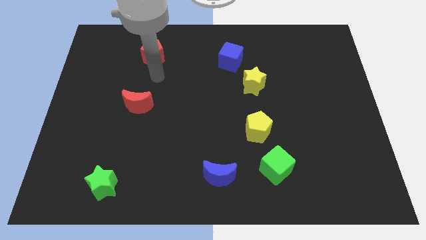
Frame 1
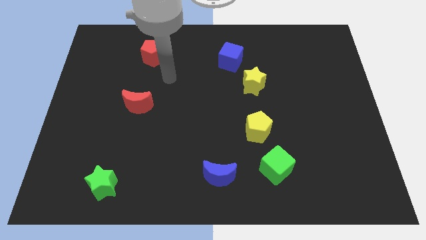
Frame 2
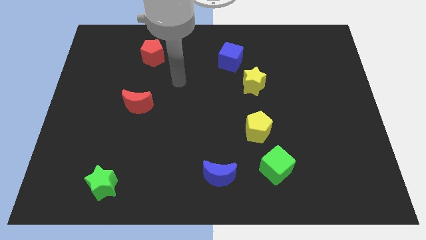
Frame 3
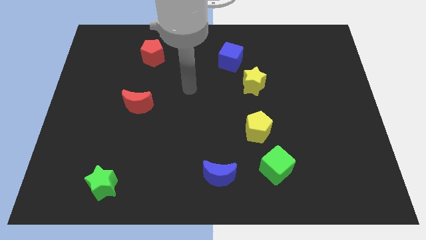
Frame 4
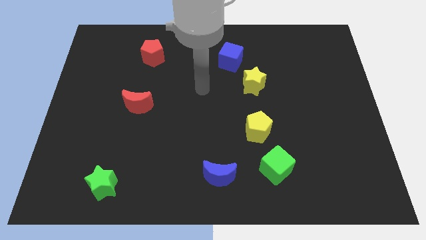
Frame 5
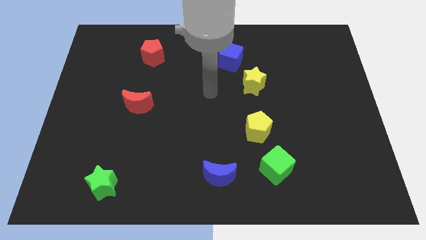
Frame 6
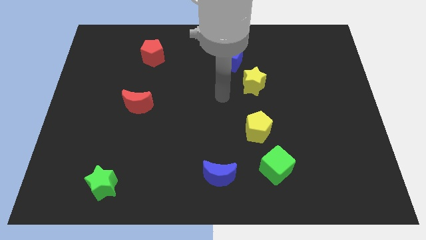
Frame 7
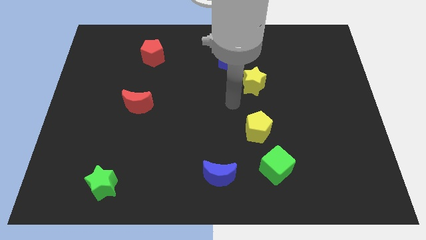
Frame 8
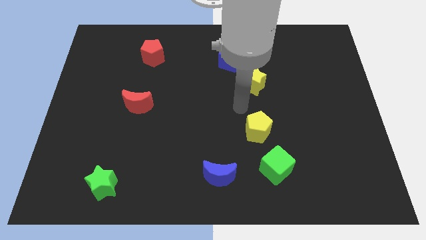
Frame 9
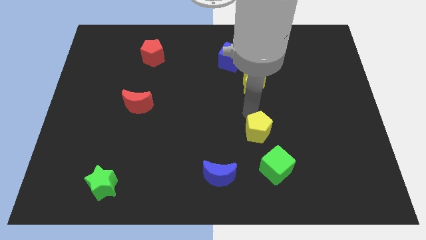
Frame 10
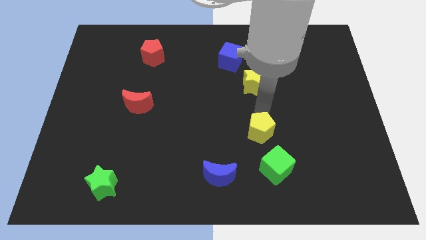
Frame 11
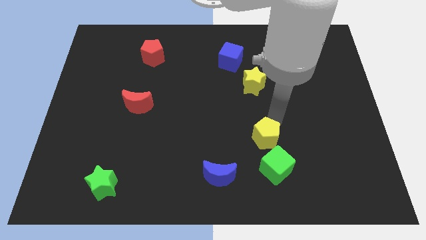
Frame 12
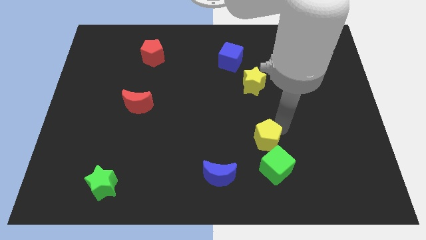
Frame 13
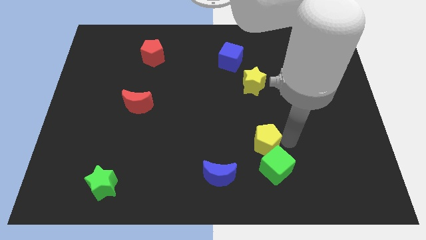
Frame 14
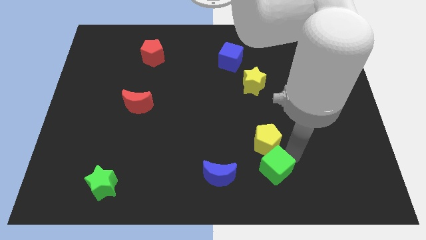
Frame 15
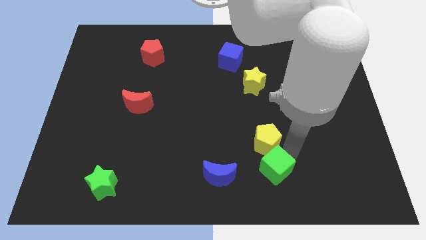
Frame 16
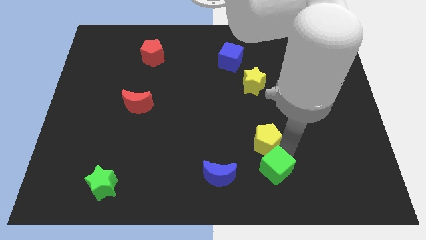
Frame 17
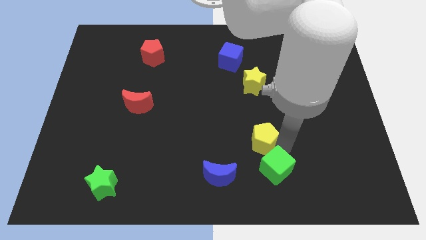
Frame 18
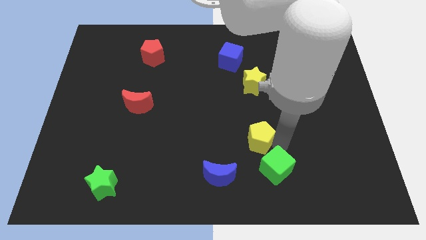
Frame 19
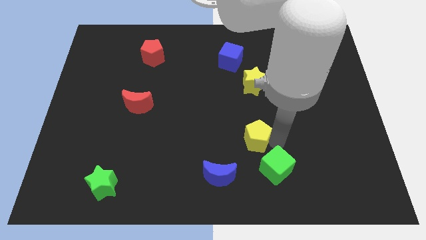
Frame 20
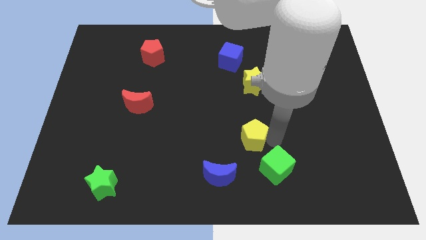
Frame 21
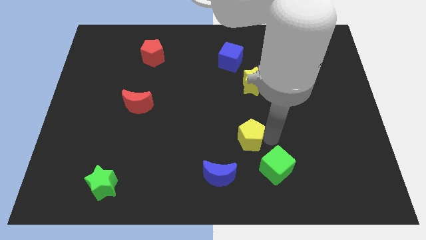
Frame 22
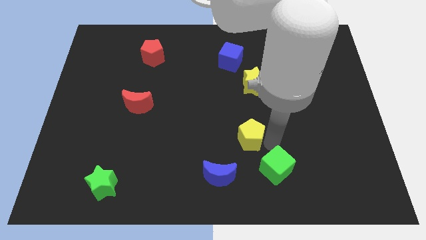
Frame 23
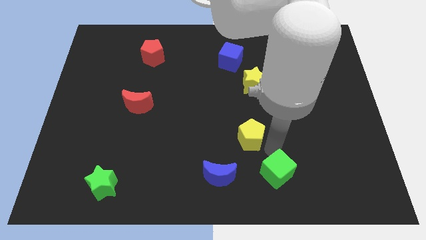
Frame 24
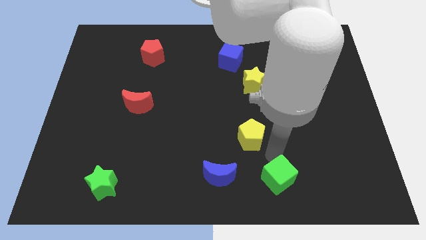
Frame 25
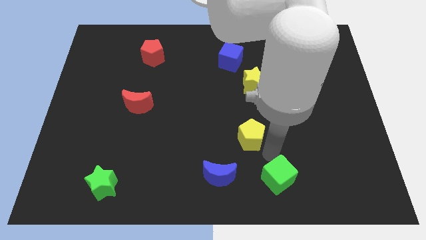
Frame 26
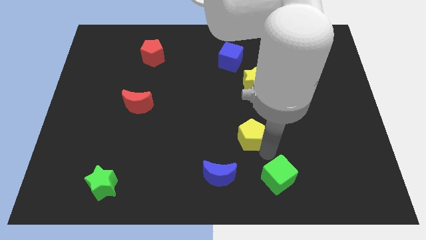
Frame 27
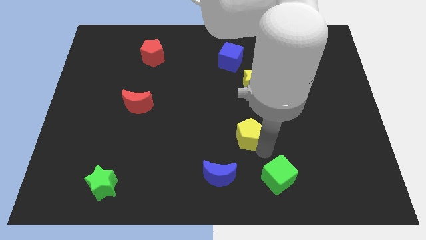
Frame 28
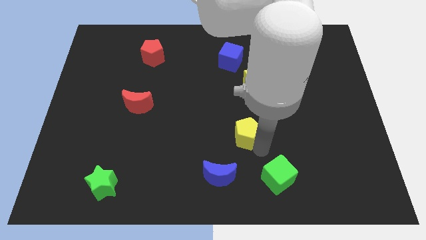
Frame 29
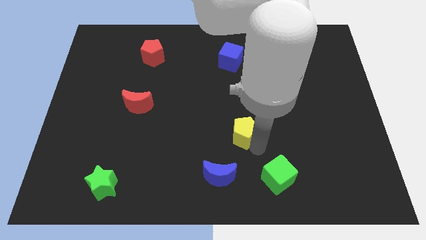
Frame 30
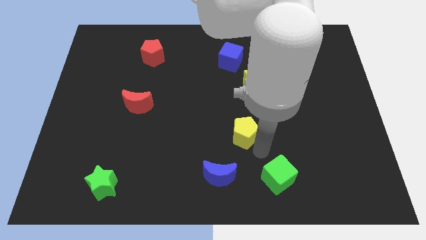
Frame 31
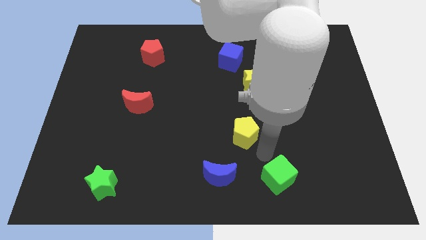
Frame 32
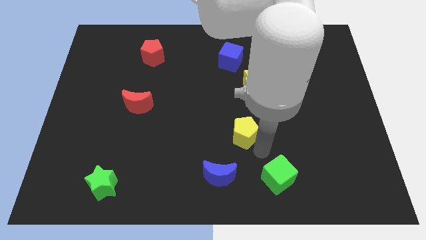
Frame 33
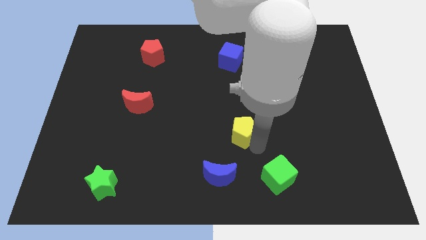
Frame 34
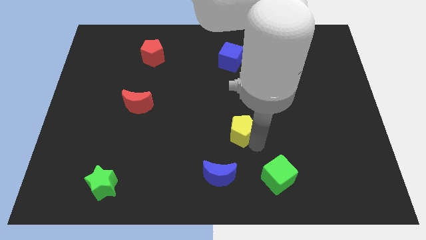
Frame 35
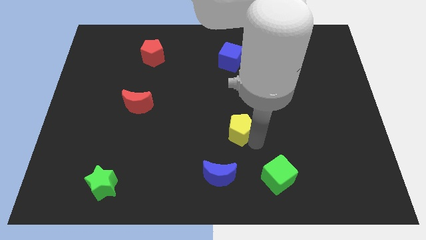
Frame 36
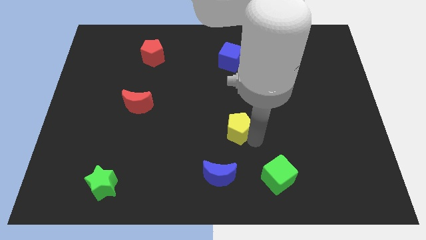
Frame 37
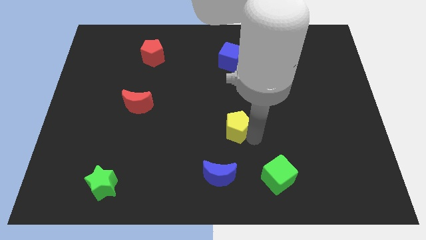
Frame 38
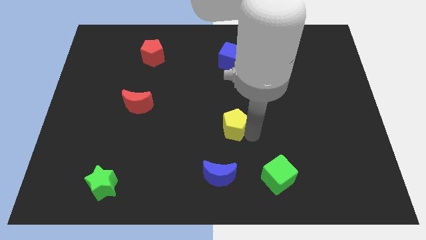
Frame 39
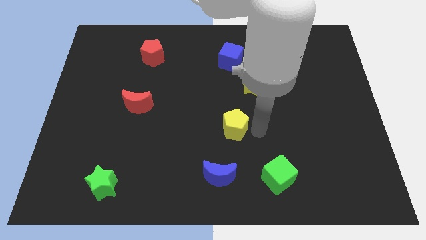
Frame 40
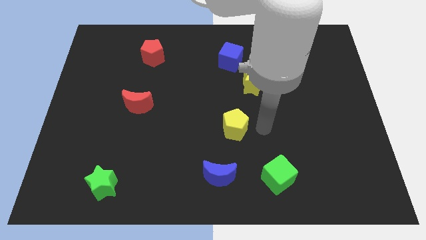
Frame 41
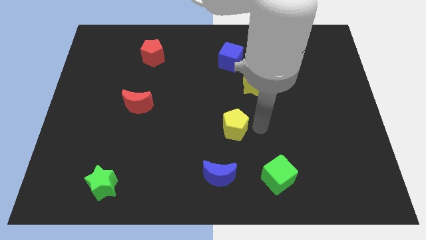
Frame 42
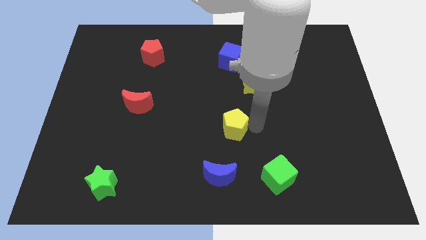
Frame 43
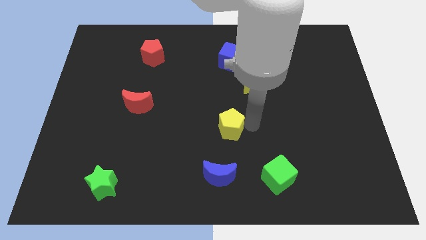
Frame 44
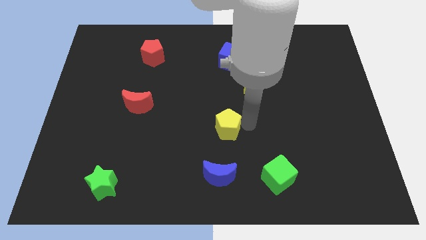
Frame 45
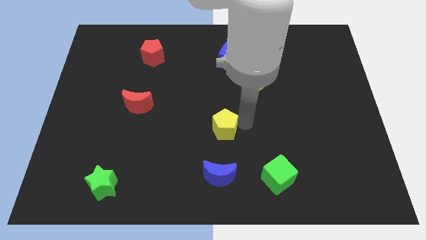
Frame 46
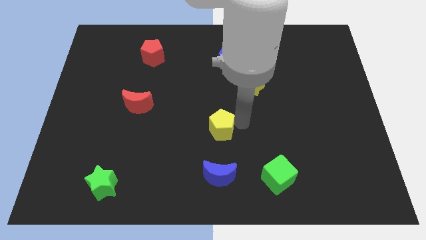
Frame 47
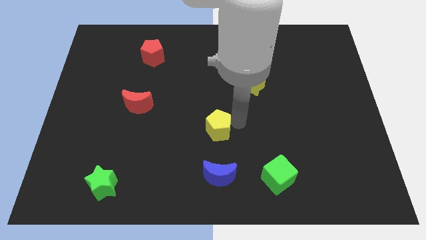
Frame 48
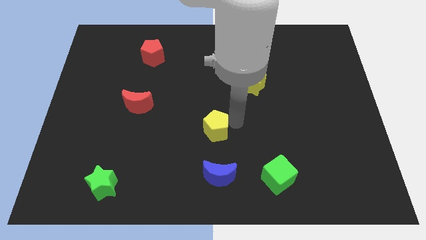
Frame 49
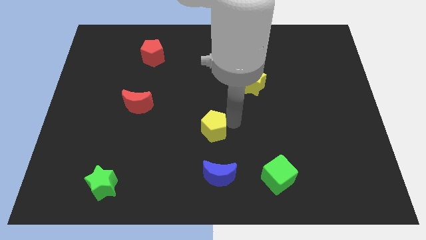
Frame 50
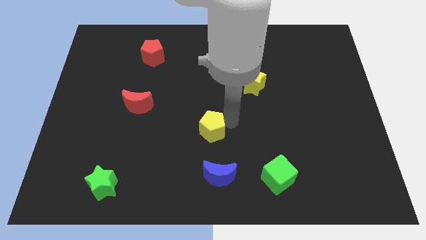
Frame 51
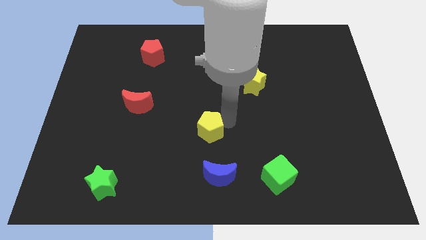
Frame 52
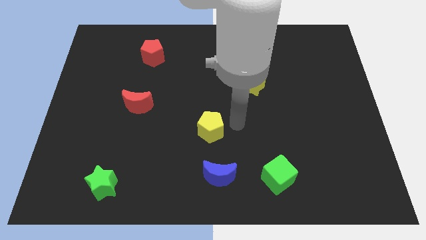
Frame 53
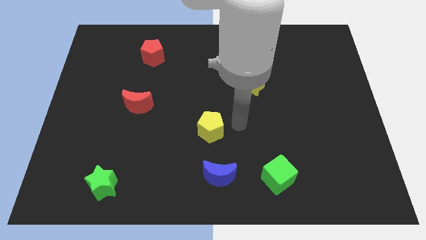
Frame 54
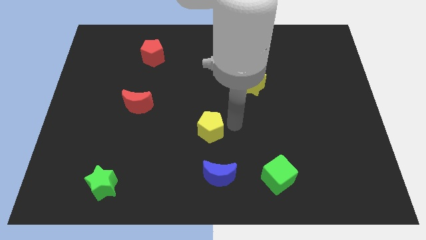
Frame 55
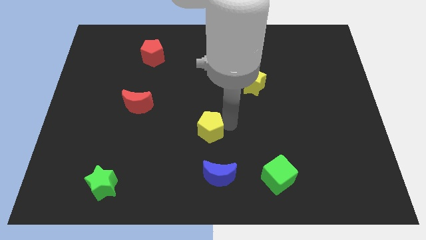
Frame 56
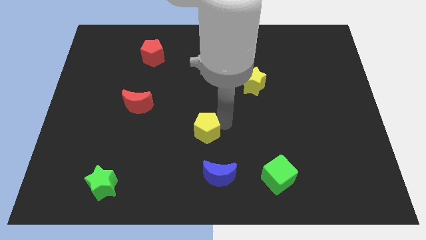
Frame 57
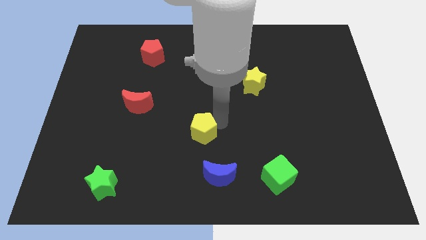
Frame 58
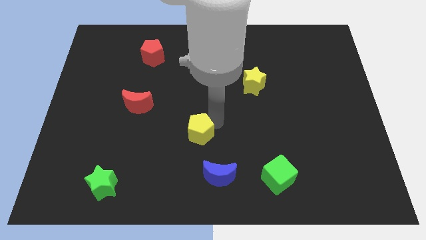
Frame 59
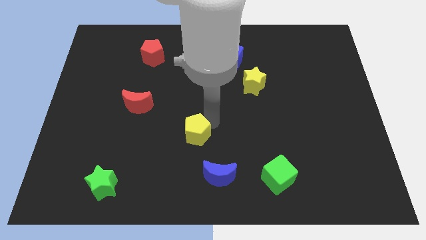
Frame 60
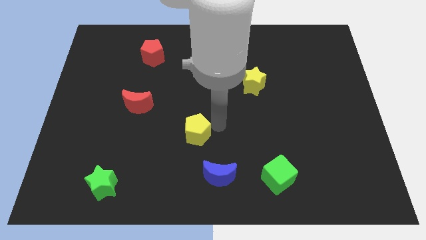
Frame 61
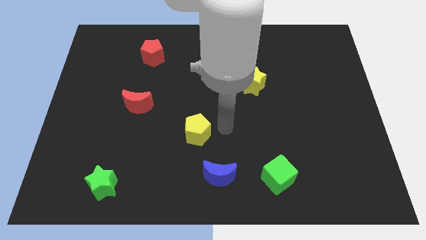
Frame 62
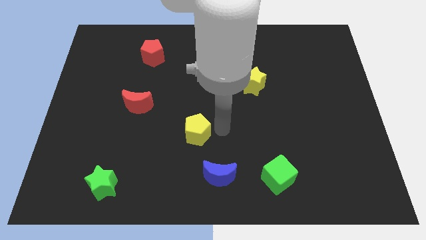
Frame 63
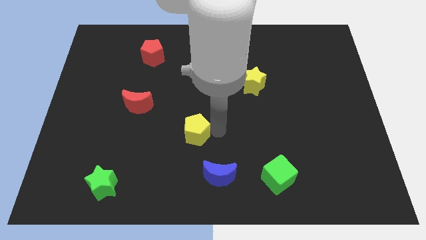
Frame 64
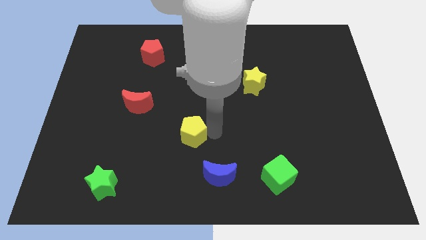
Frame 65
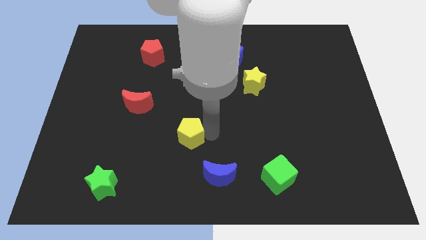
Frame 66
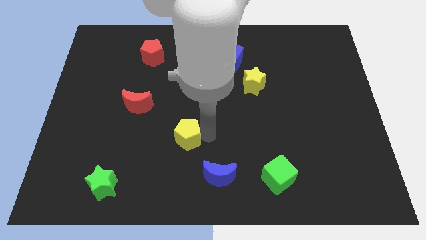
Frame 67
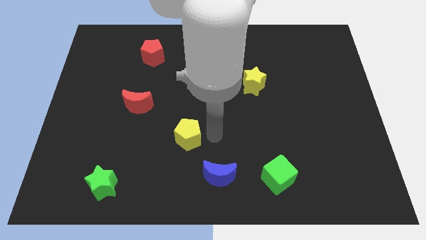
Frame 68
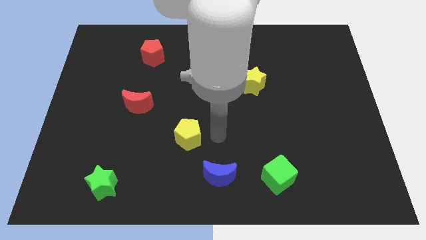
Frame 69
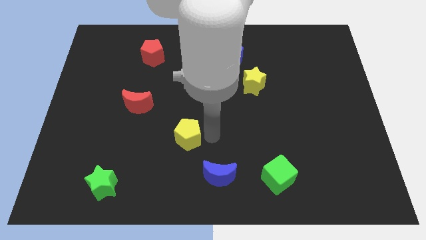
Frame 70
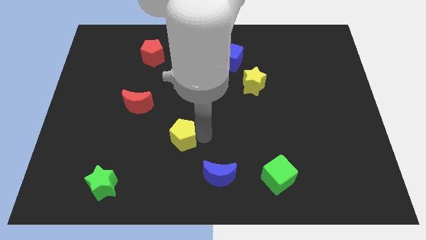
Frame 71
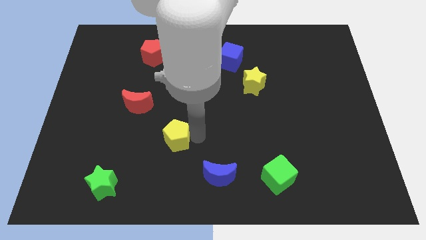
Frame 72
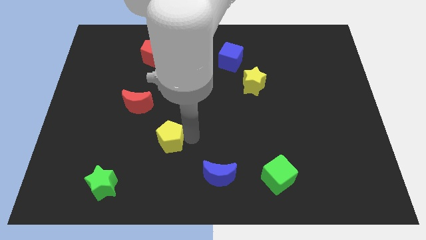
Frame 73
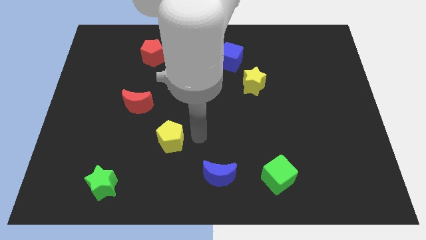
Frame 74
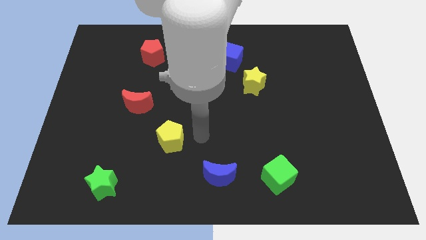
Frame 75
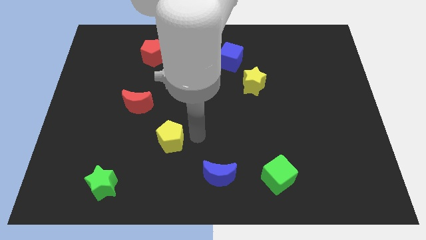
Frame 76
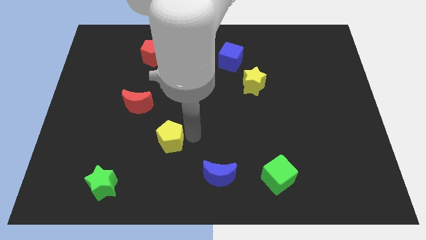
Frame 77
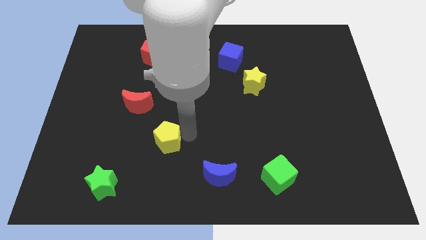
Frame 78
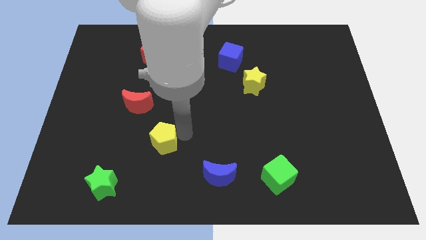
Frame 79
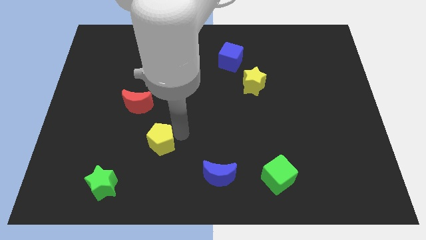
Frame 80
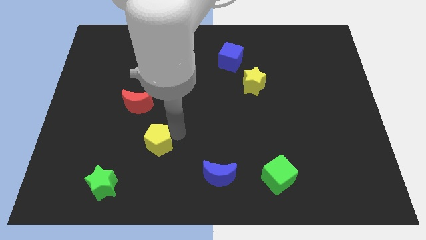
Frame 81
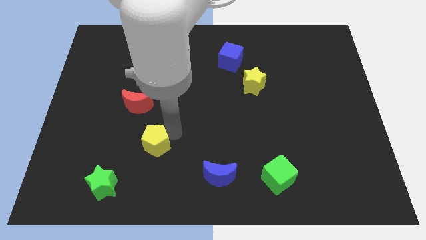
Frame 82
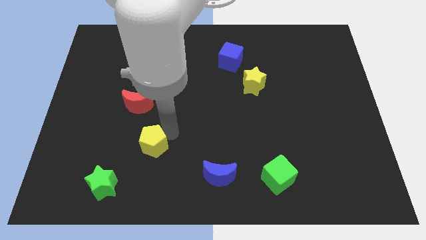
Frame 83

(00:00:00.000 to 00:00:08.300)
put the yellow pentagon below the red moon
